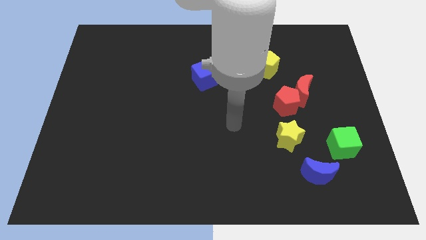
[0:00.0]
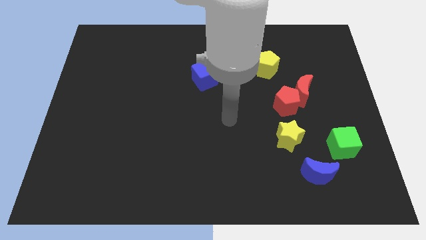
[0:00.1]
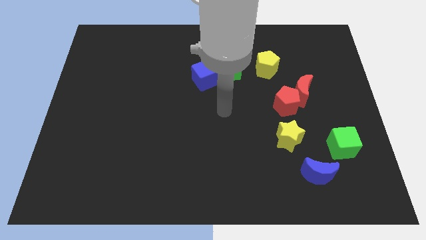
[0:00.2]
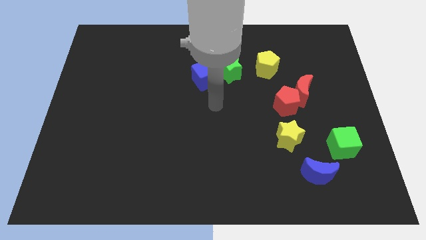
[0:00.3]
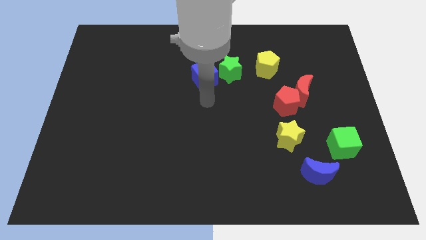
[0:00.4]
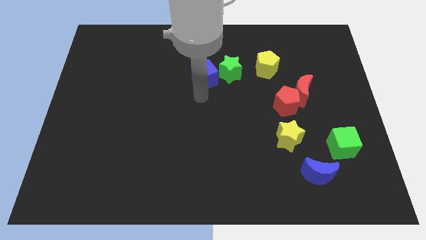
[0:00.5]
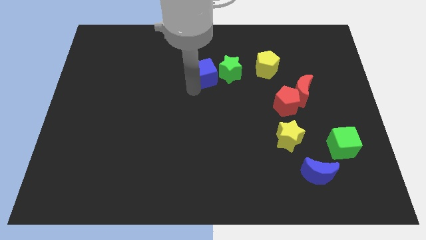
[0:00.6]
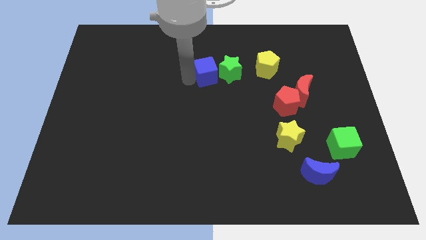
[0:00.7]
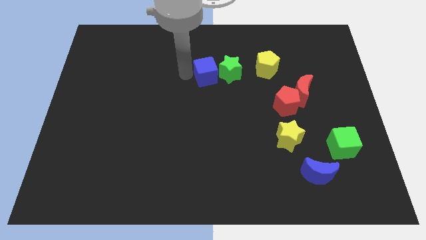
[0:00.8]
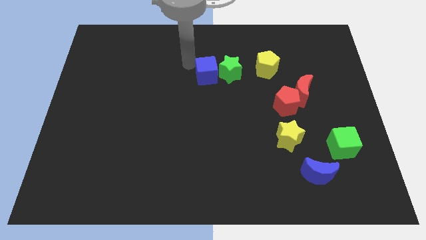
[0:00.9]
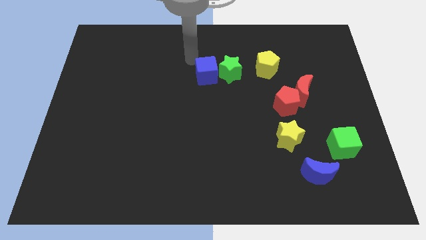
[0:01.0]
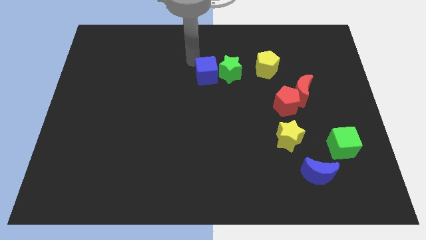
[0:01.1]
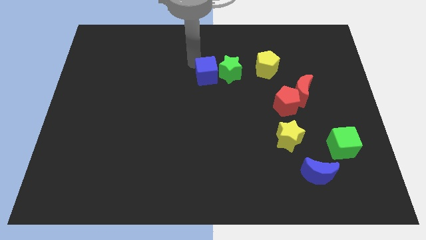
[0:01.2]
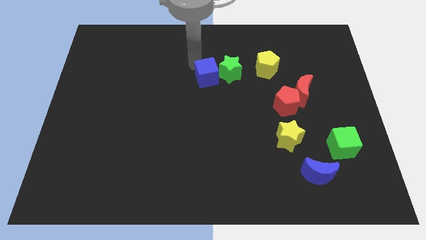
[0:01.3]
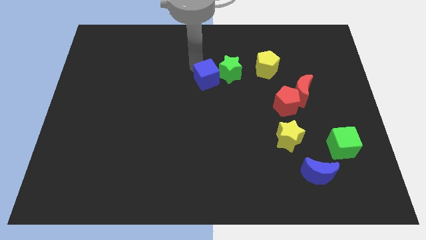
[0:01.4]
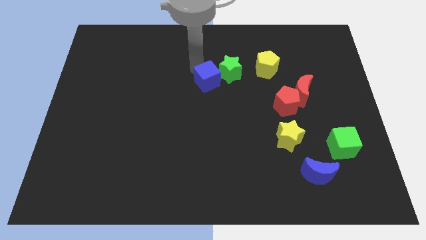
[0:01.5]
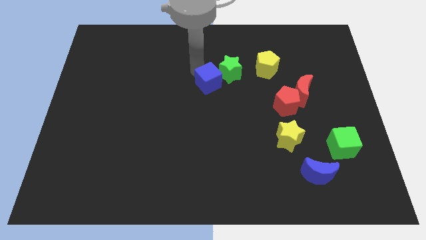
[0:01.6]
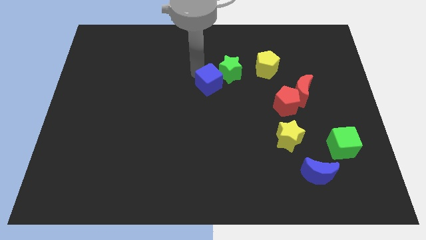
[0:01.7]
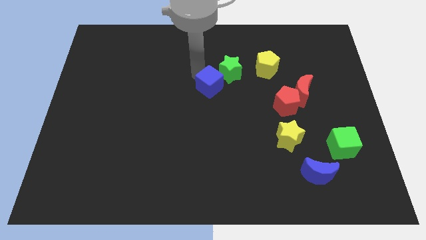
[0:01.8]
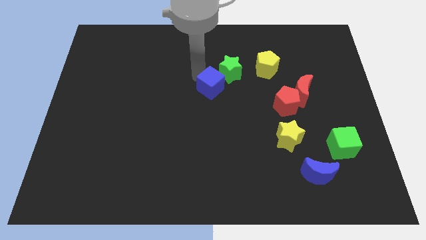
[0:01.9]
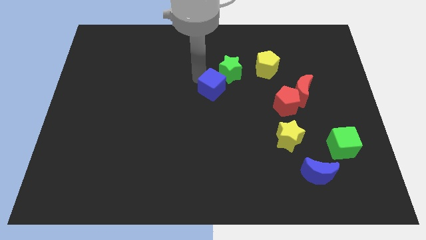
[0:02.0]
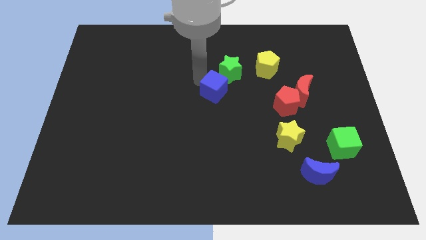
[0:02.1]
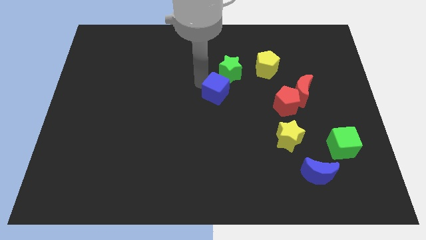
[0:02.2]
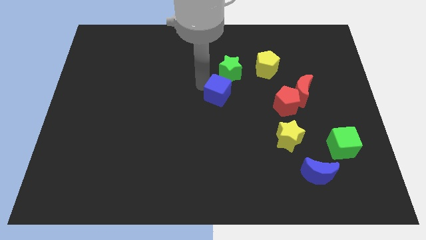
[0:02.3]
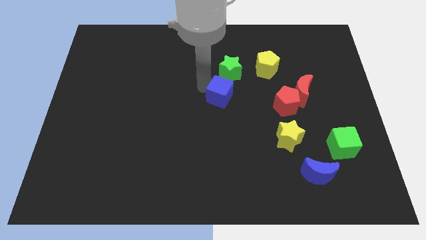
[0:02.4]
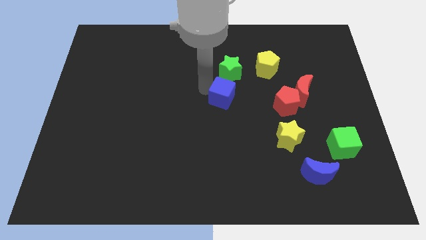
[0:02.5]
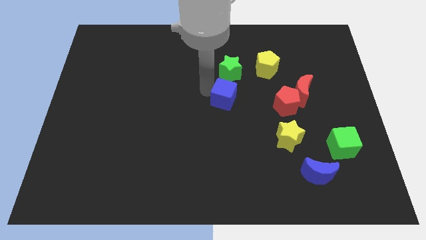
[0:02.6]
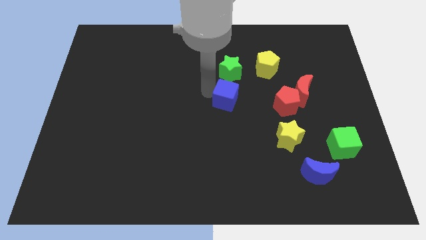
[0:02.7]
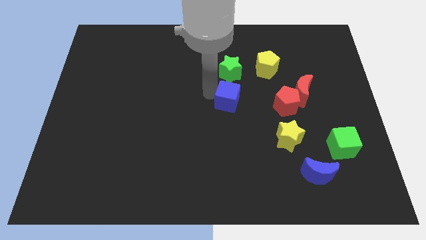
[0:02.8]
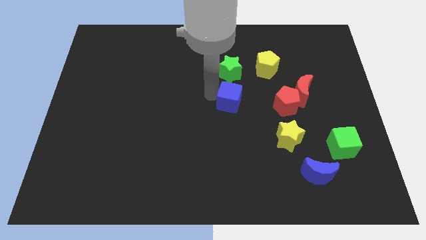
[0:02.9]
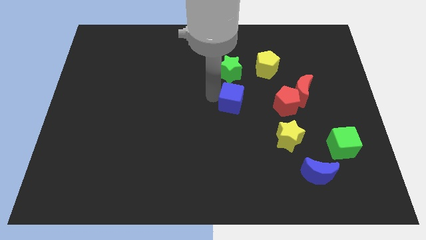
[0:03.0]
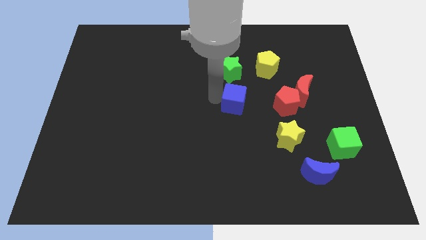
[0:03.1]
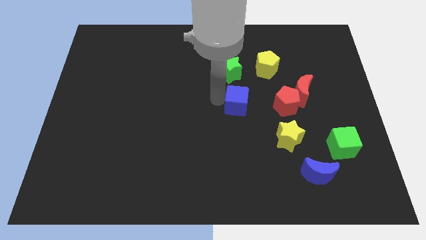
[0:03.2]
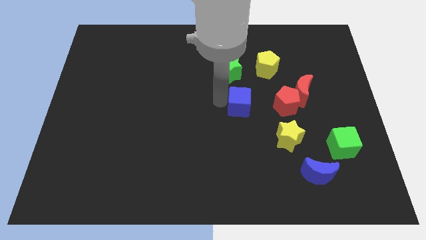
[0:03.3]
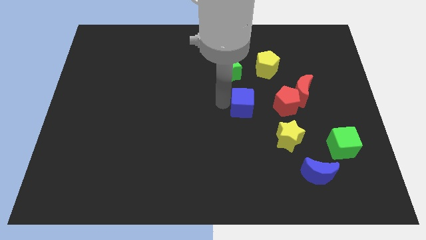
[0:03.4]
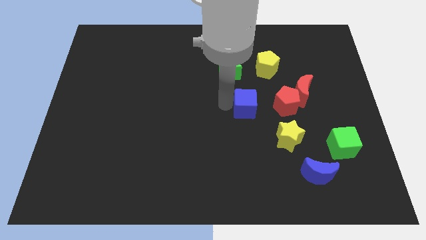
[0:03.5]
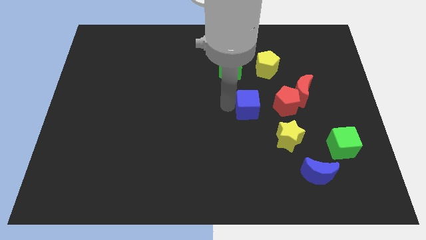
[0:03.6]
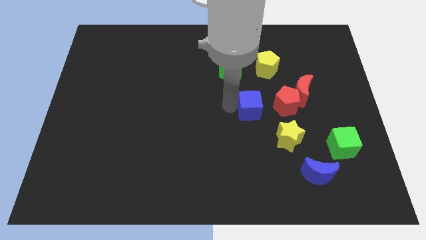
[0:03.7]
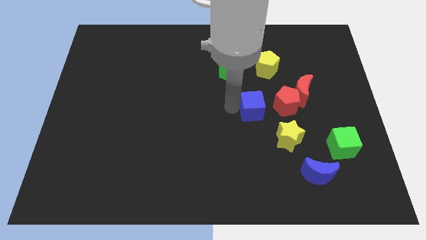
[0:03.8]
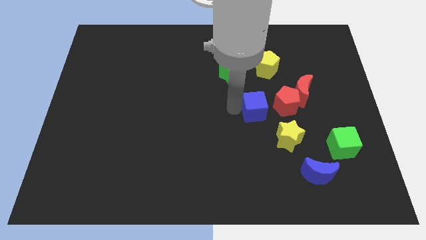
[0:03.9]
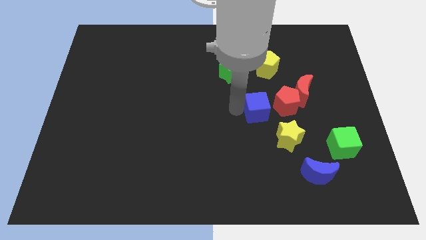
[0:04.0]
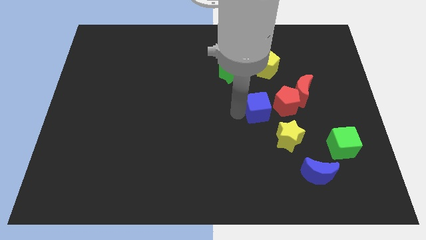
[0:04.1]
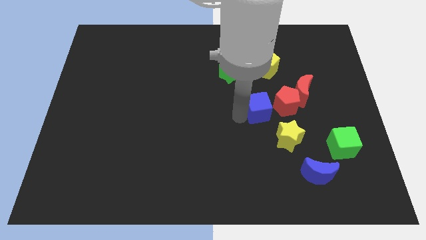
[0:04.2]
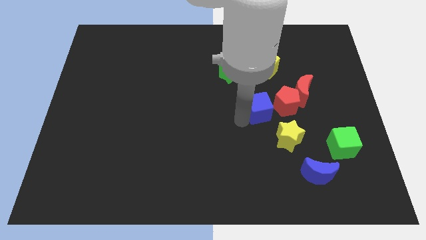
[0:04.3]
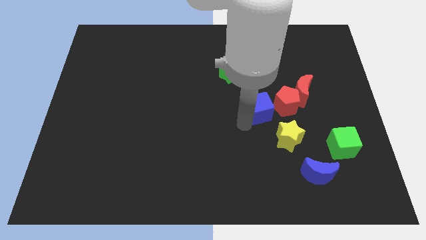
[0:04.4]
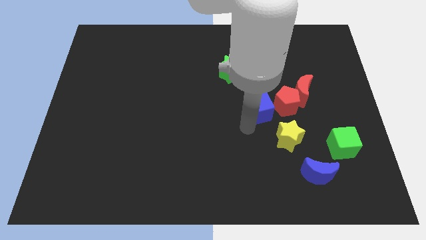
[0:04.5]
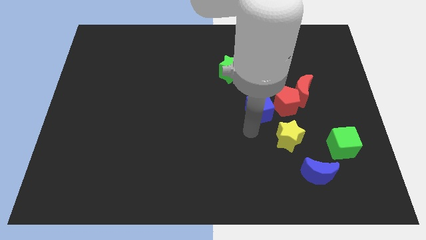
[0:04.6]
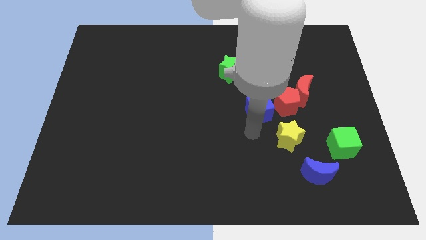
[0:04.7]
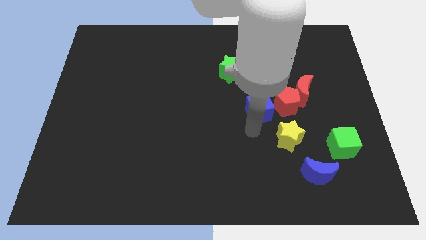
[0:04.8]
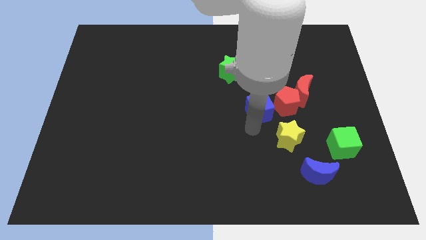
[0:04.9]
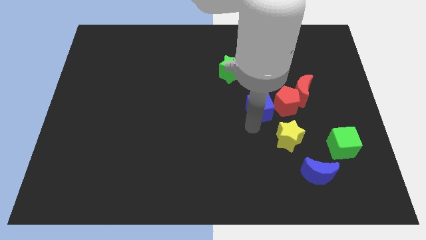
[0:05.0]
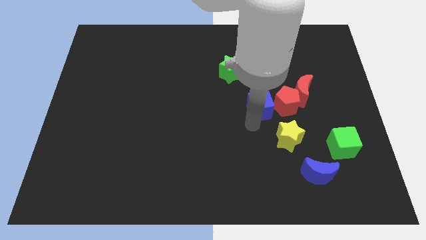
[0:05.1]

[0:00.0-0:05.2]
put the blue cube next to the red pentagon

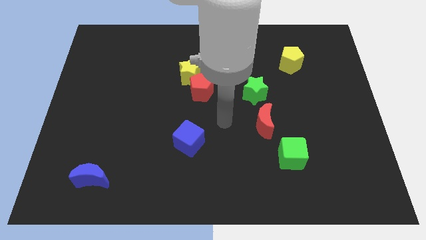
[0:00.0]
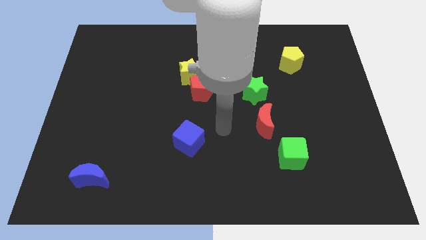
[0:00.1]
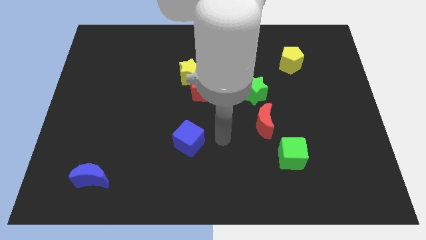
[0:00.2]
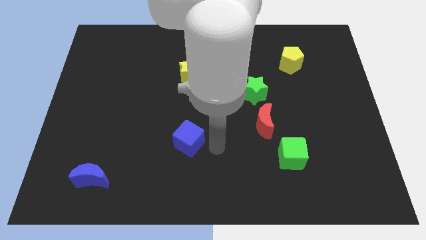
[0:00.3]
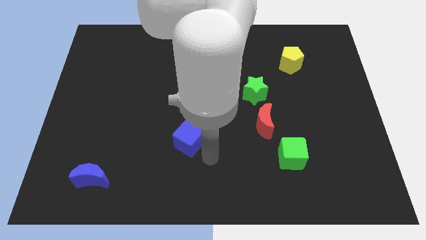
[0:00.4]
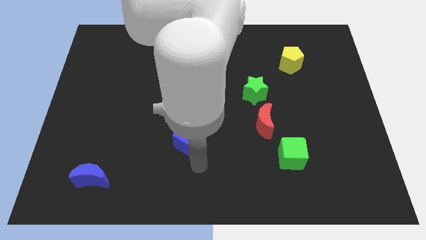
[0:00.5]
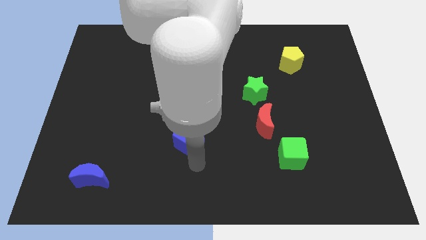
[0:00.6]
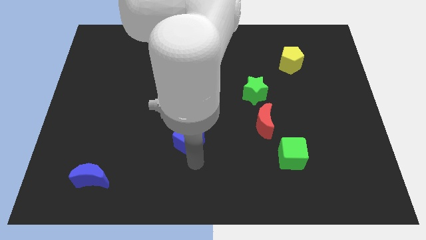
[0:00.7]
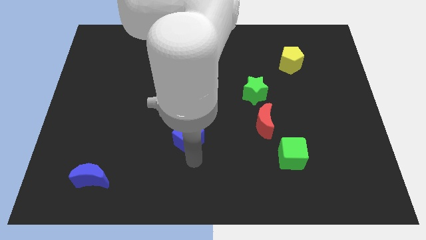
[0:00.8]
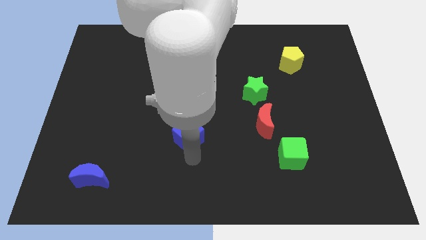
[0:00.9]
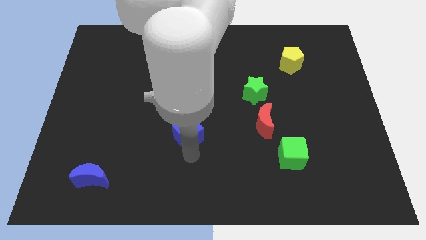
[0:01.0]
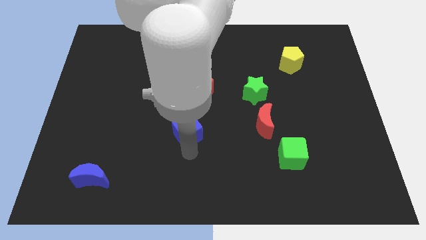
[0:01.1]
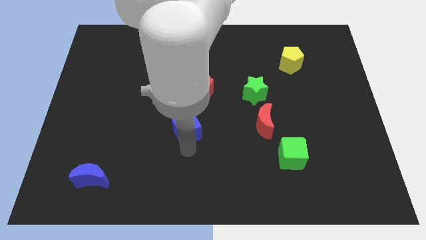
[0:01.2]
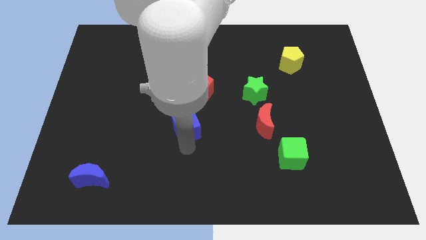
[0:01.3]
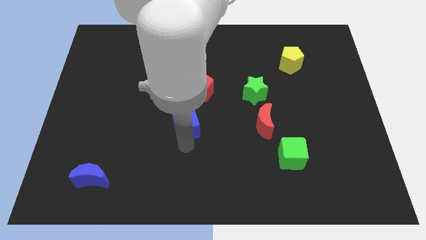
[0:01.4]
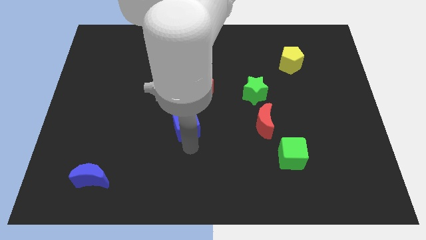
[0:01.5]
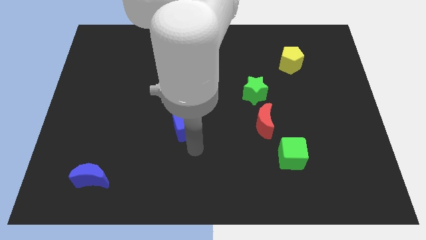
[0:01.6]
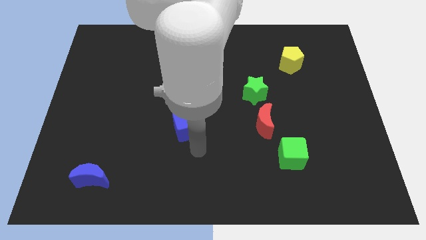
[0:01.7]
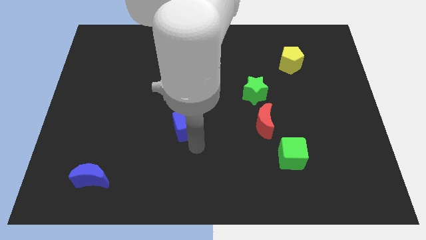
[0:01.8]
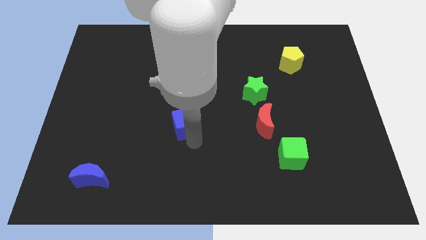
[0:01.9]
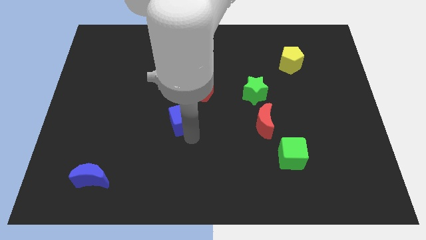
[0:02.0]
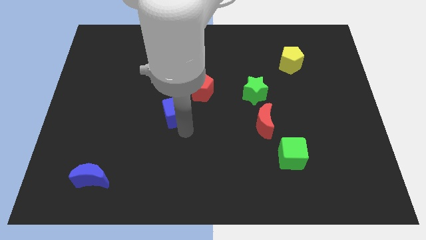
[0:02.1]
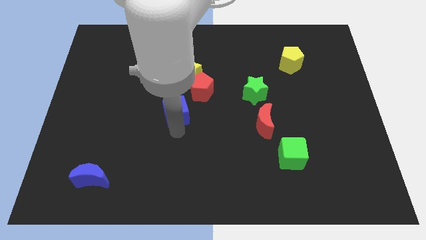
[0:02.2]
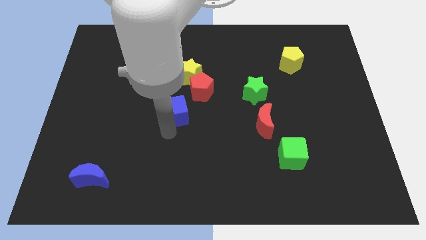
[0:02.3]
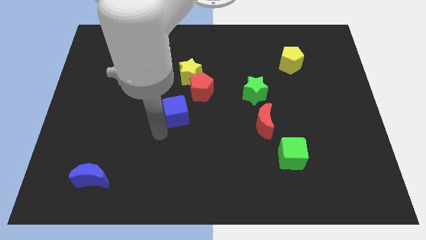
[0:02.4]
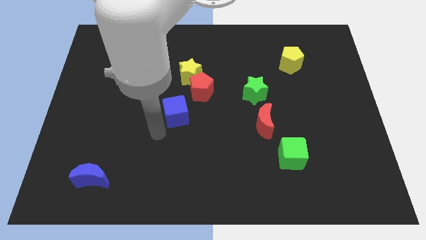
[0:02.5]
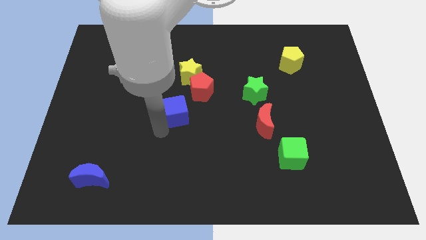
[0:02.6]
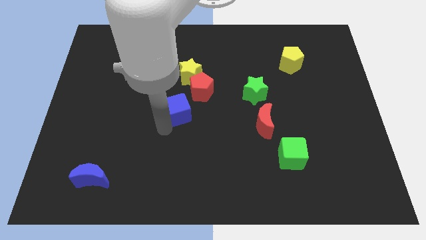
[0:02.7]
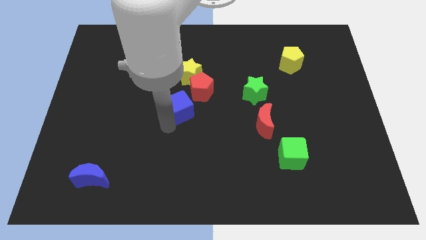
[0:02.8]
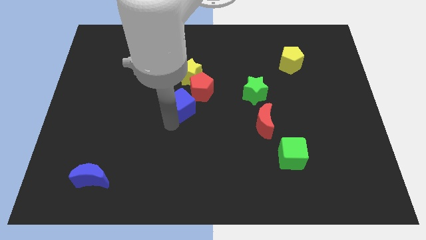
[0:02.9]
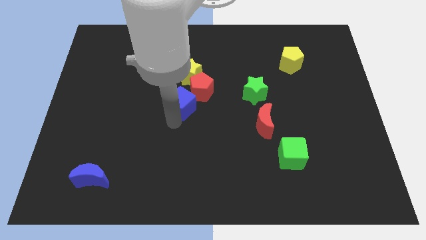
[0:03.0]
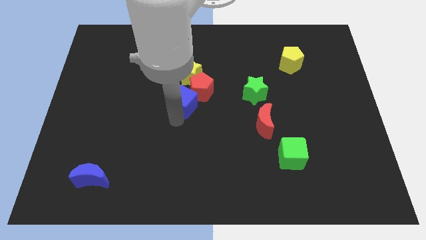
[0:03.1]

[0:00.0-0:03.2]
put the blue cube close to the red pentagon
